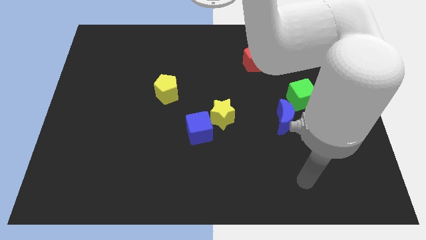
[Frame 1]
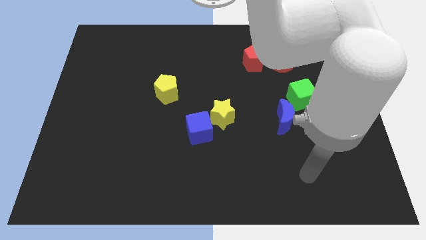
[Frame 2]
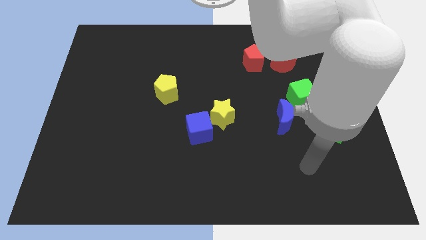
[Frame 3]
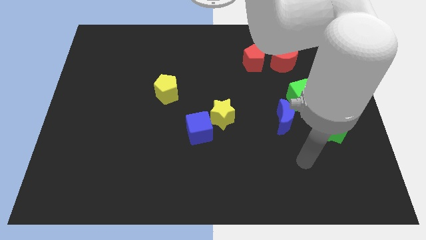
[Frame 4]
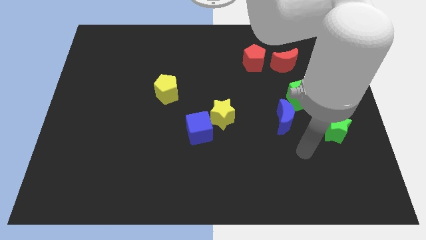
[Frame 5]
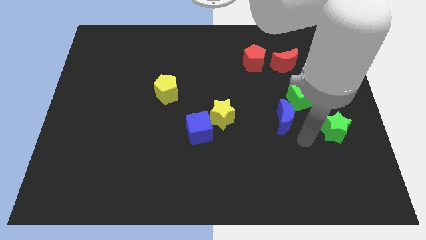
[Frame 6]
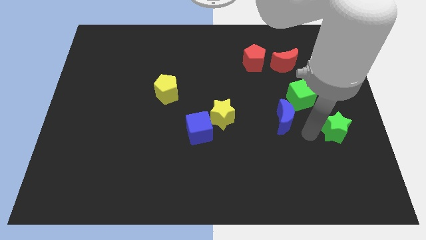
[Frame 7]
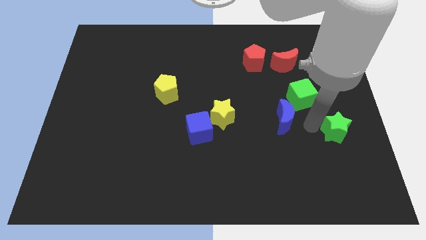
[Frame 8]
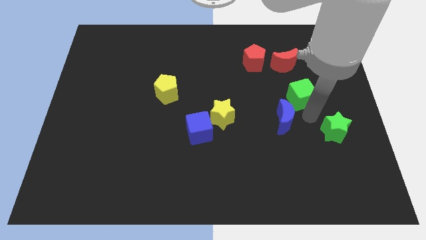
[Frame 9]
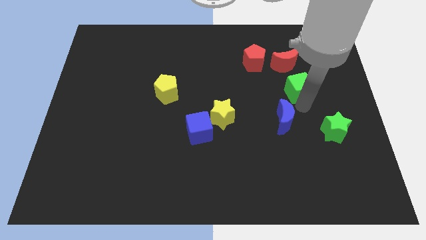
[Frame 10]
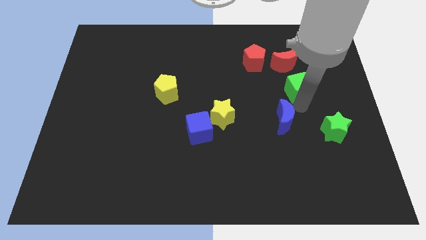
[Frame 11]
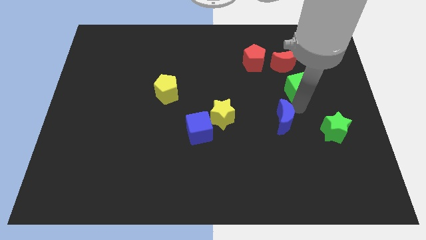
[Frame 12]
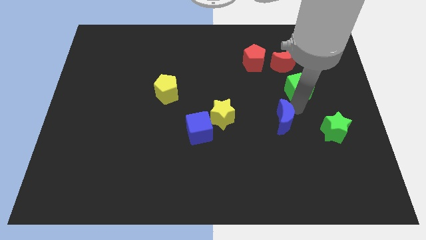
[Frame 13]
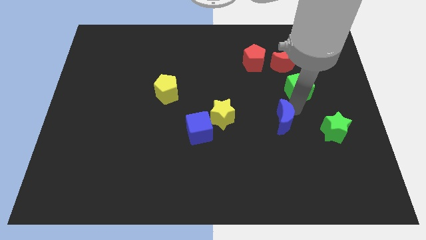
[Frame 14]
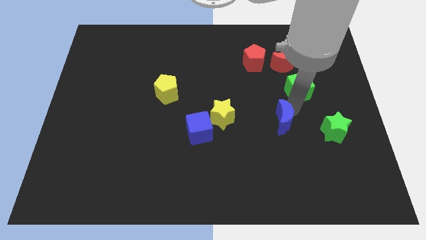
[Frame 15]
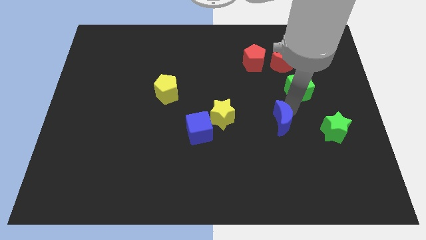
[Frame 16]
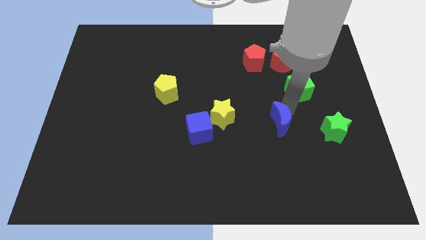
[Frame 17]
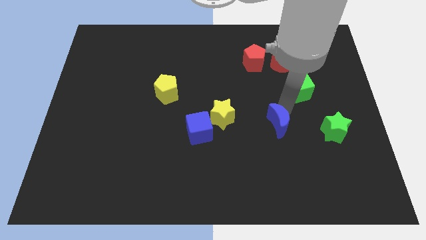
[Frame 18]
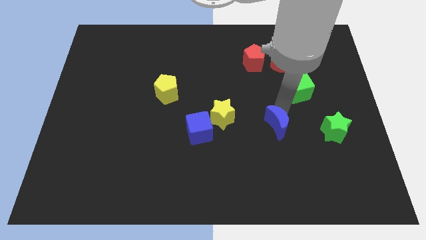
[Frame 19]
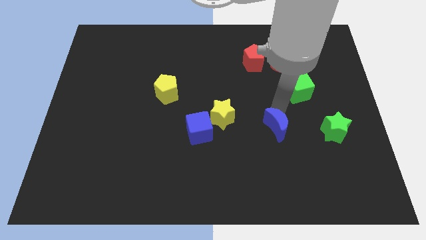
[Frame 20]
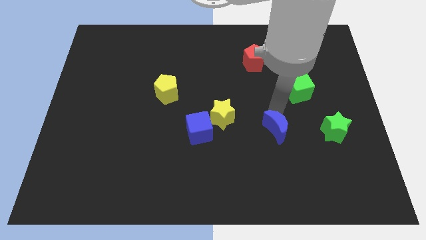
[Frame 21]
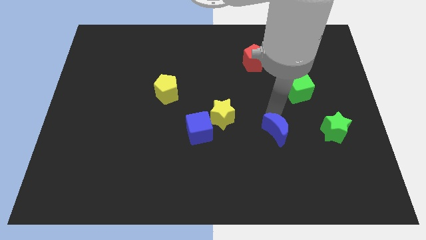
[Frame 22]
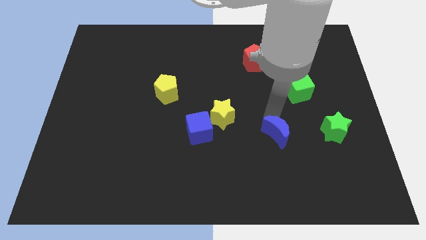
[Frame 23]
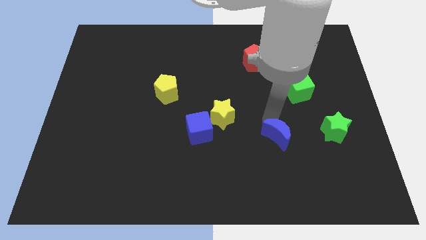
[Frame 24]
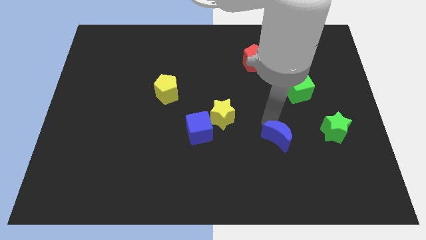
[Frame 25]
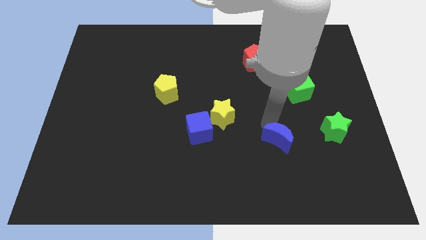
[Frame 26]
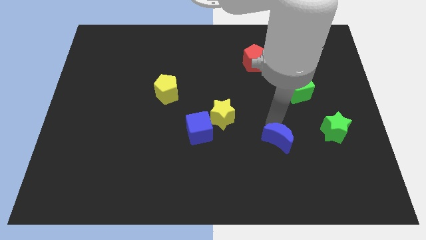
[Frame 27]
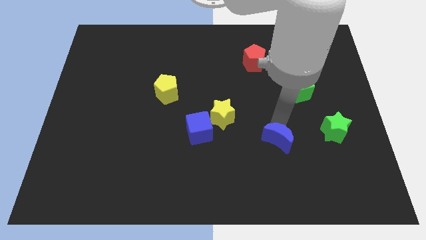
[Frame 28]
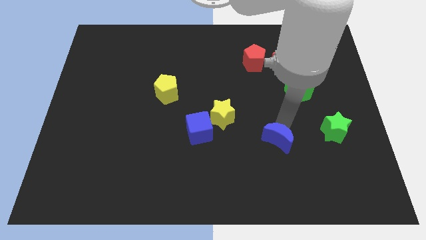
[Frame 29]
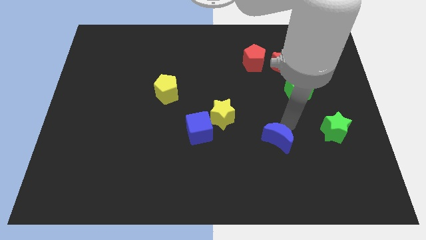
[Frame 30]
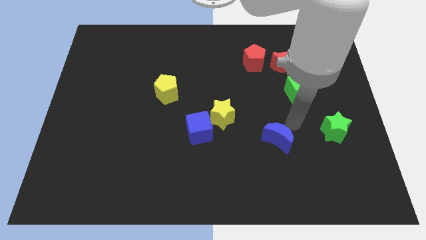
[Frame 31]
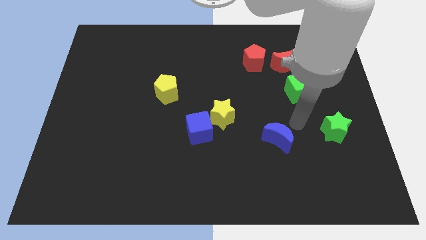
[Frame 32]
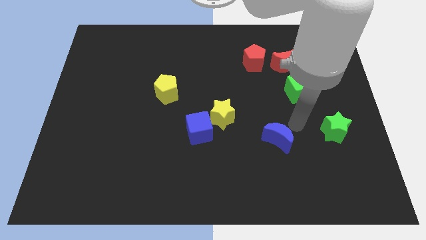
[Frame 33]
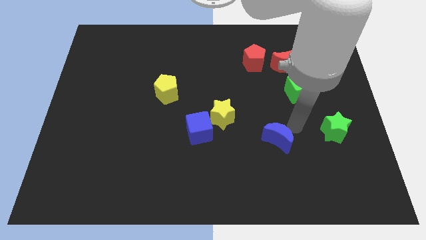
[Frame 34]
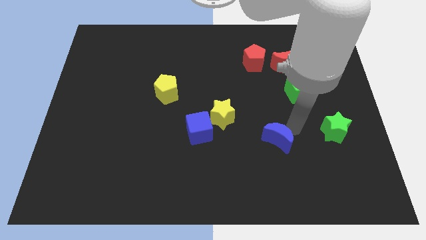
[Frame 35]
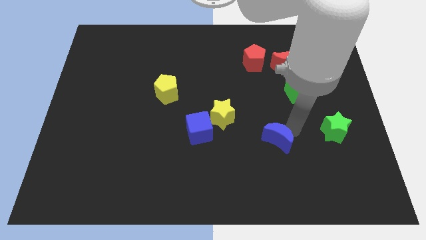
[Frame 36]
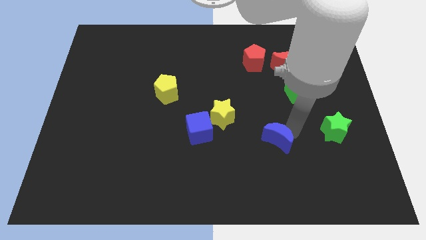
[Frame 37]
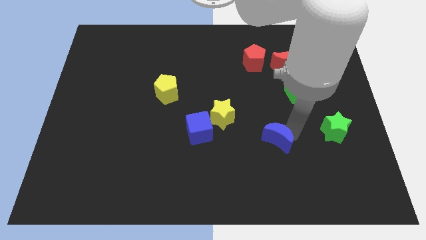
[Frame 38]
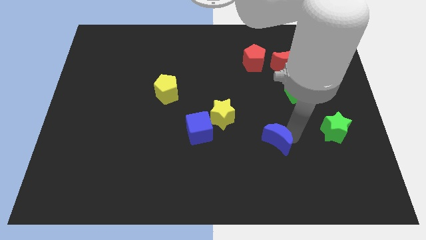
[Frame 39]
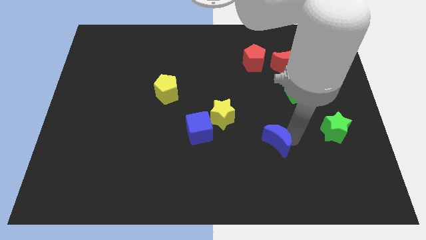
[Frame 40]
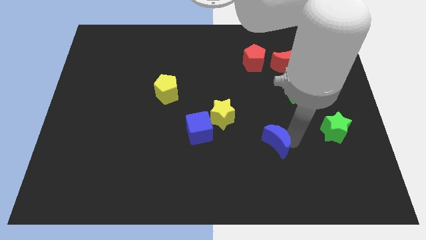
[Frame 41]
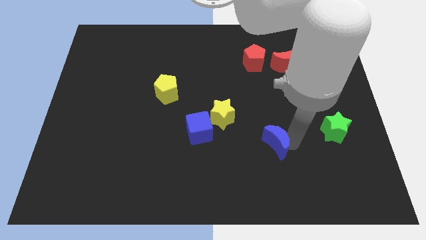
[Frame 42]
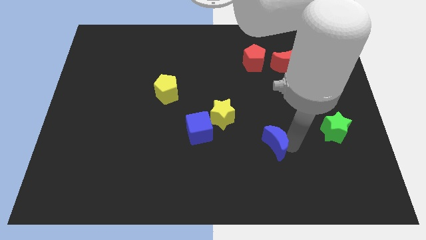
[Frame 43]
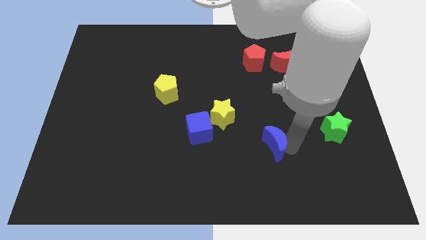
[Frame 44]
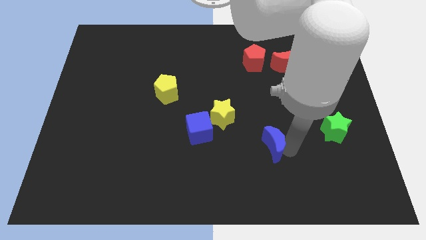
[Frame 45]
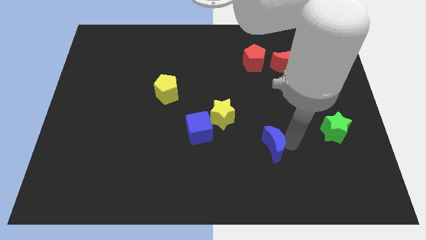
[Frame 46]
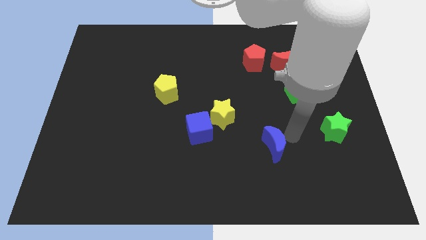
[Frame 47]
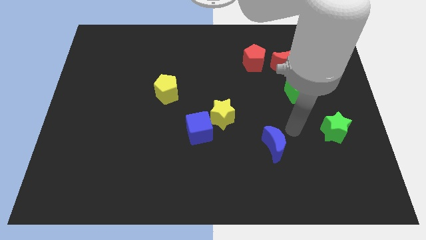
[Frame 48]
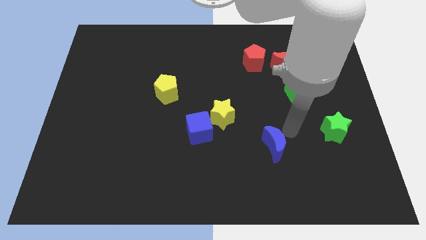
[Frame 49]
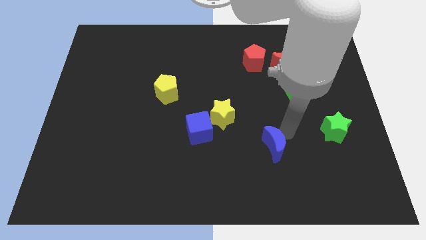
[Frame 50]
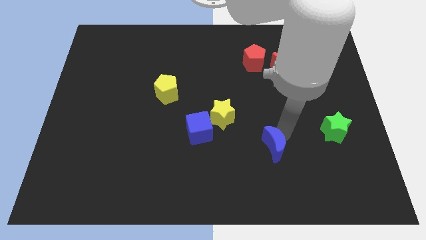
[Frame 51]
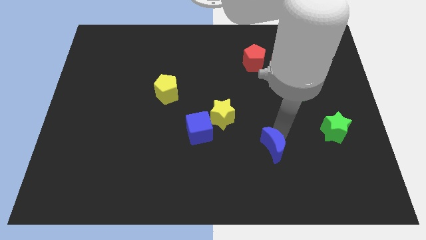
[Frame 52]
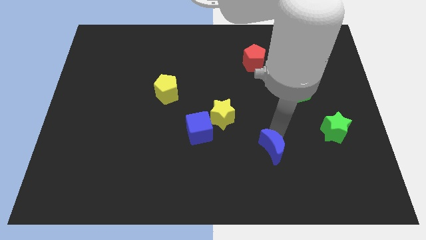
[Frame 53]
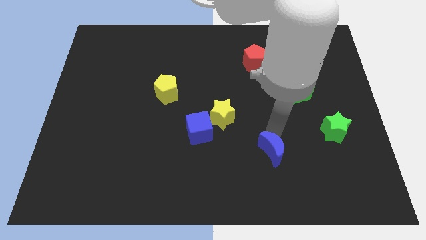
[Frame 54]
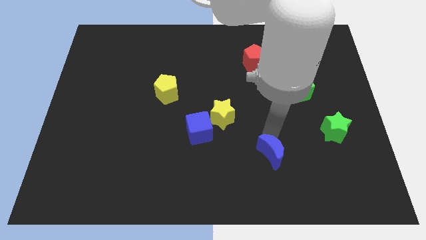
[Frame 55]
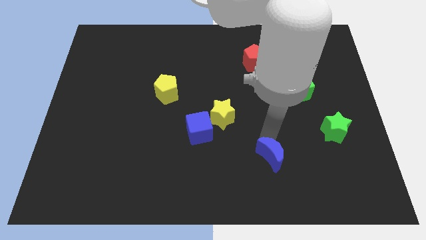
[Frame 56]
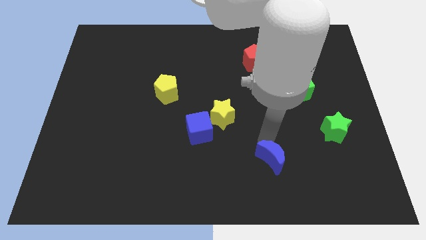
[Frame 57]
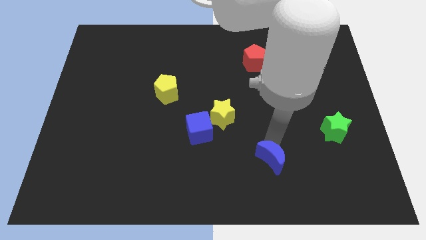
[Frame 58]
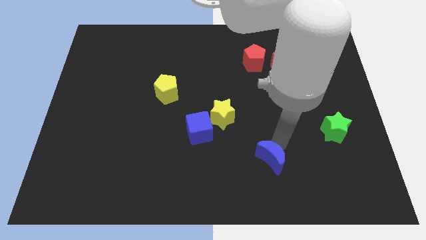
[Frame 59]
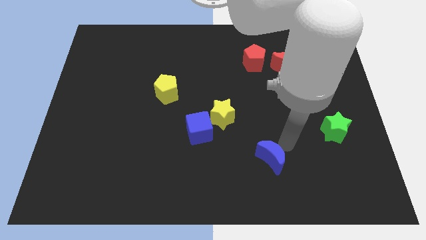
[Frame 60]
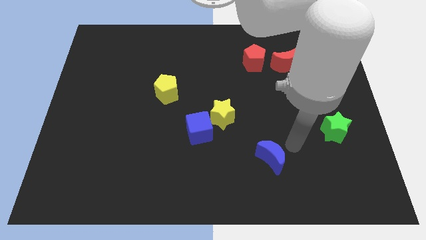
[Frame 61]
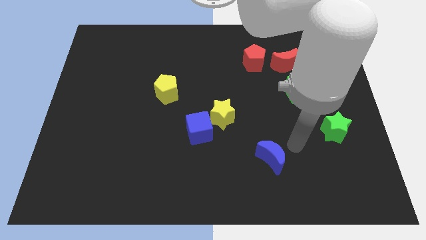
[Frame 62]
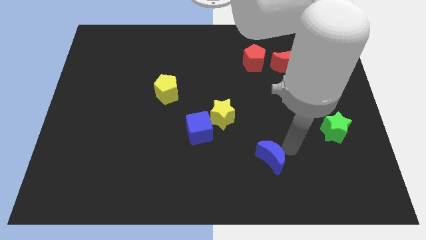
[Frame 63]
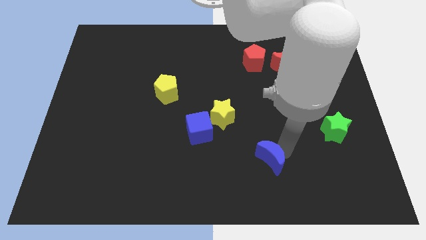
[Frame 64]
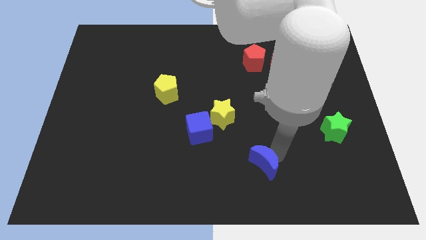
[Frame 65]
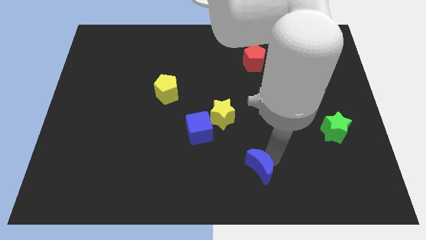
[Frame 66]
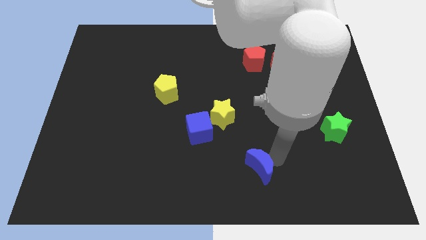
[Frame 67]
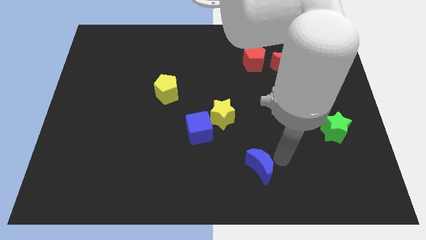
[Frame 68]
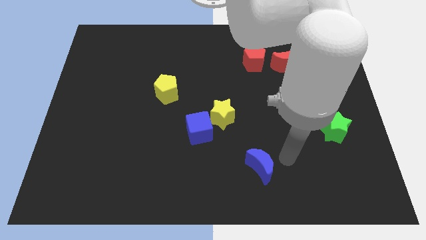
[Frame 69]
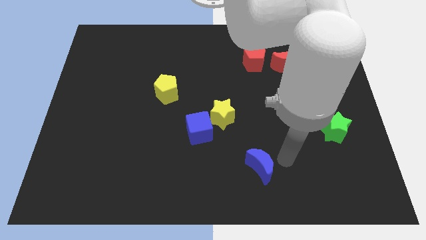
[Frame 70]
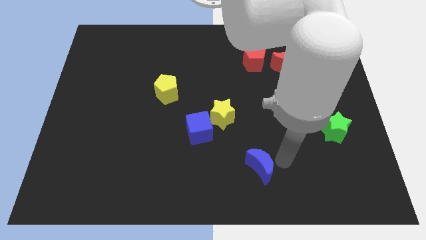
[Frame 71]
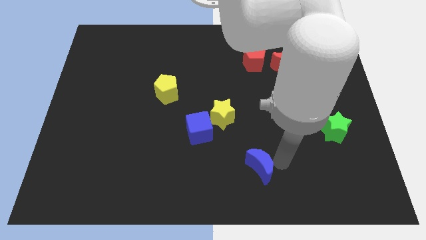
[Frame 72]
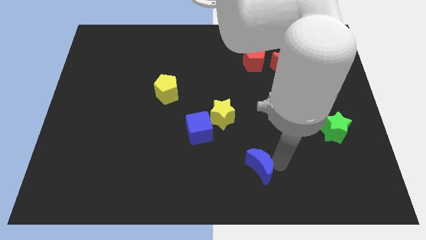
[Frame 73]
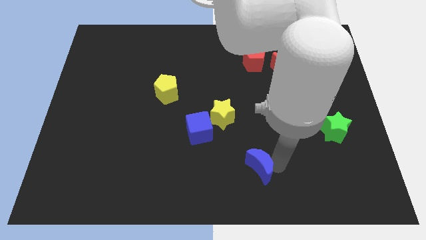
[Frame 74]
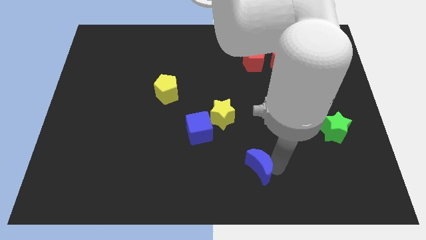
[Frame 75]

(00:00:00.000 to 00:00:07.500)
slide the blue moon to the bottom side

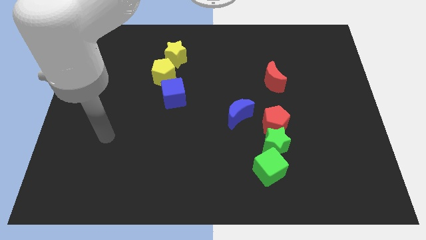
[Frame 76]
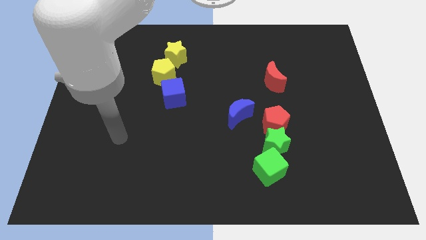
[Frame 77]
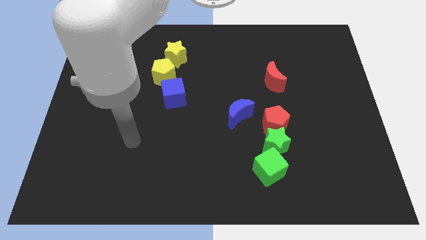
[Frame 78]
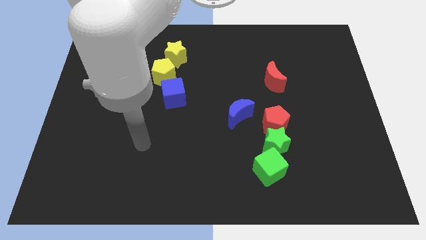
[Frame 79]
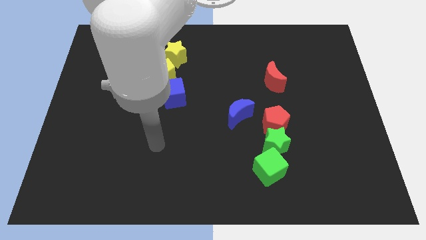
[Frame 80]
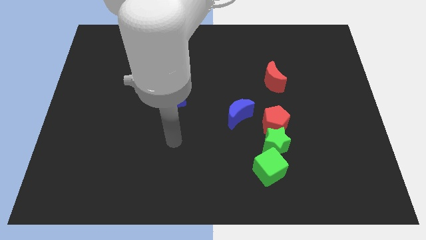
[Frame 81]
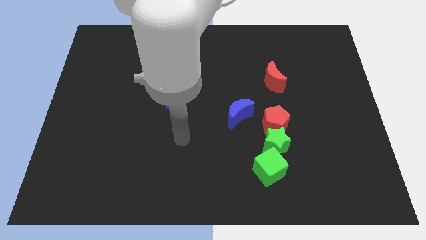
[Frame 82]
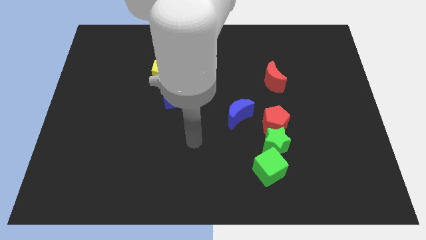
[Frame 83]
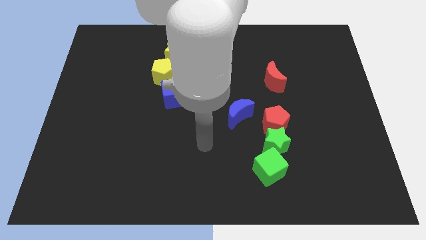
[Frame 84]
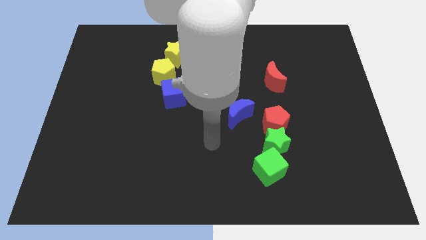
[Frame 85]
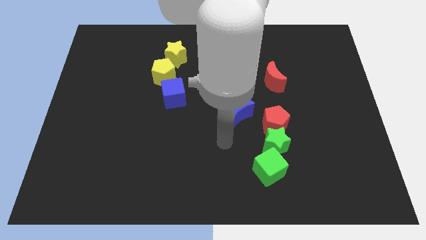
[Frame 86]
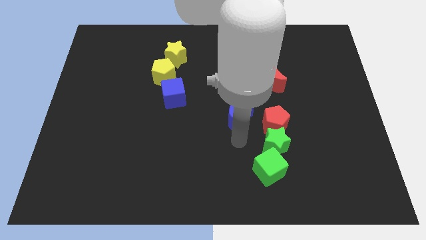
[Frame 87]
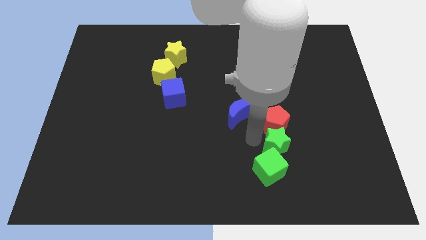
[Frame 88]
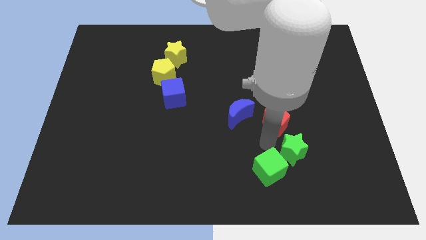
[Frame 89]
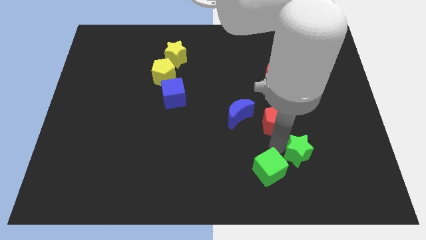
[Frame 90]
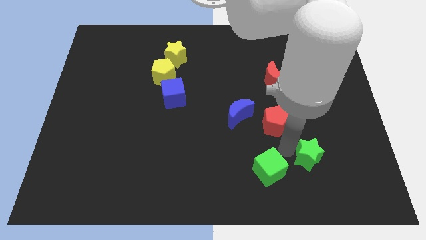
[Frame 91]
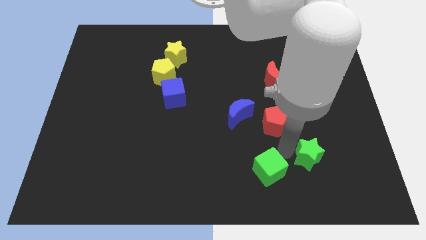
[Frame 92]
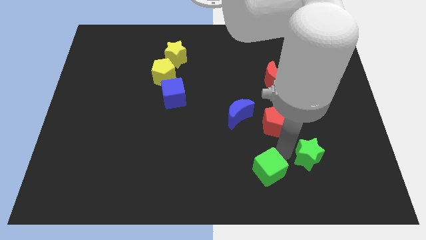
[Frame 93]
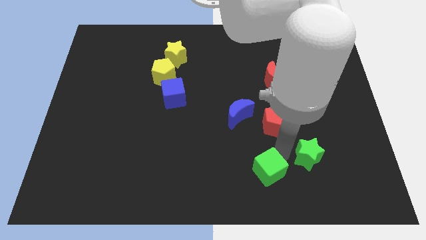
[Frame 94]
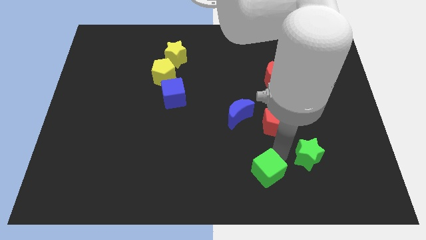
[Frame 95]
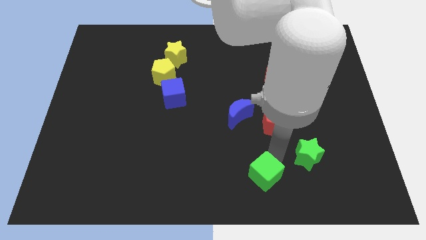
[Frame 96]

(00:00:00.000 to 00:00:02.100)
push the green cube to the bottom side
